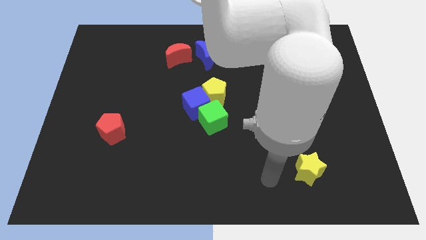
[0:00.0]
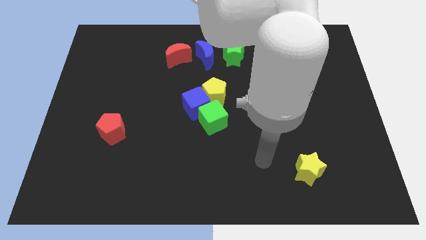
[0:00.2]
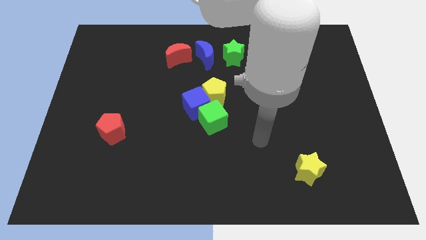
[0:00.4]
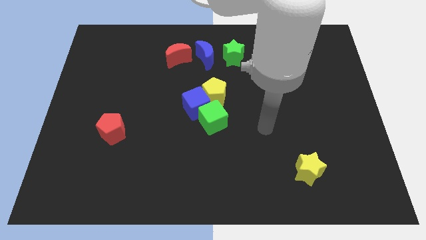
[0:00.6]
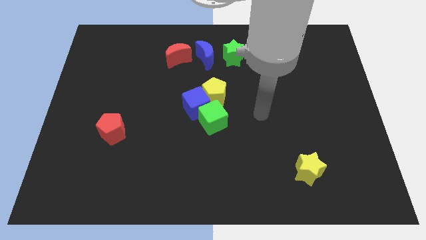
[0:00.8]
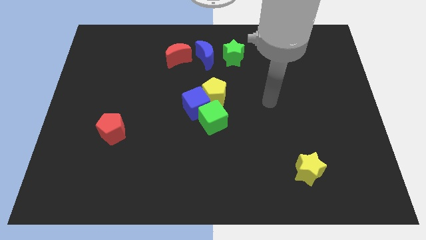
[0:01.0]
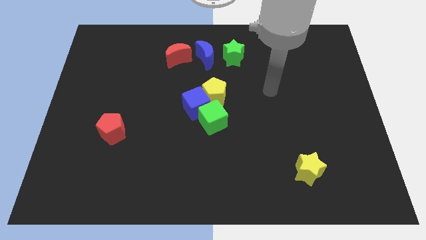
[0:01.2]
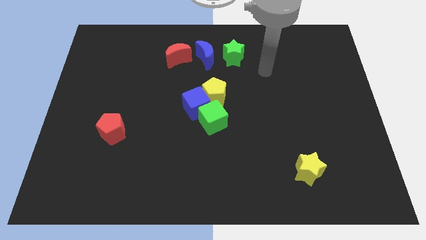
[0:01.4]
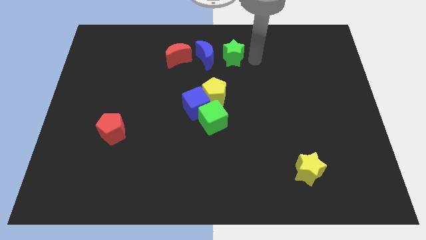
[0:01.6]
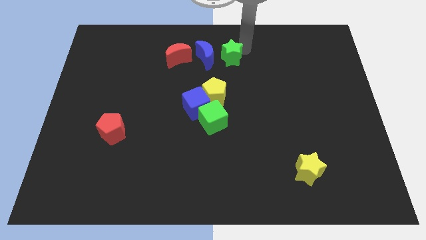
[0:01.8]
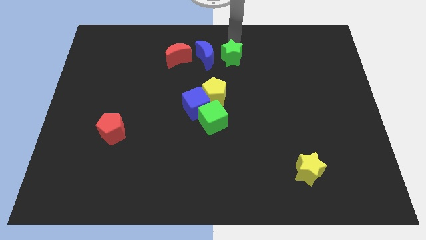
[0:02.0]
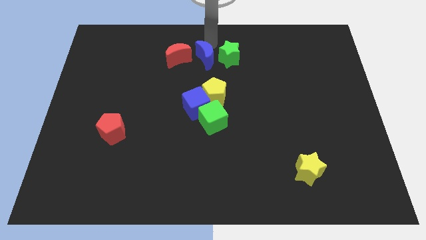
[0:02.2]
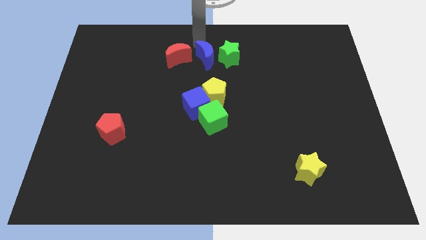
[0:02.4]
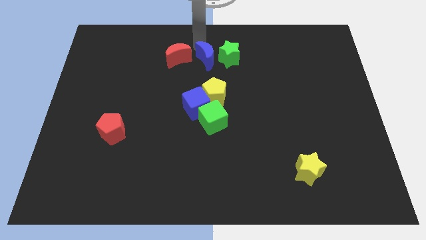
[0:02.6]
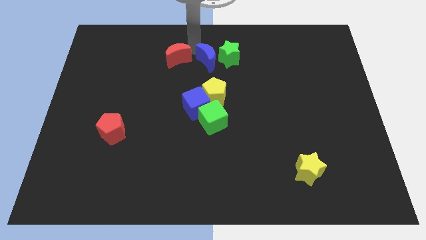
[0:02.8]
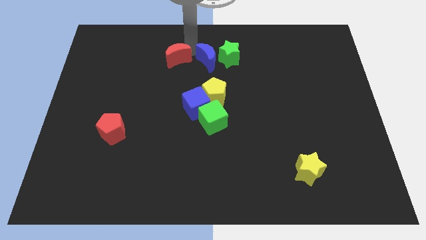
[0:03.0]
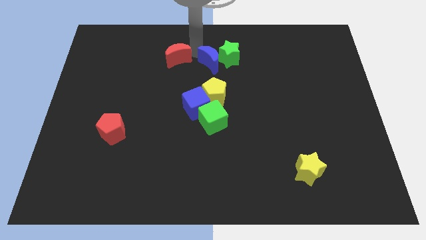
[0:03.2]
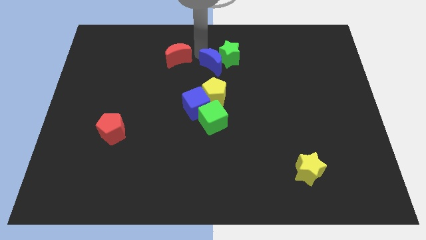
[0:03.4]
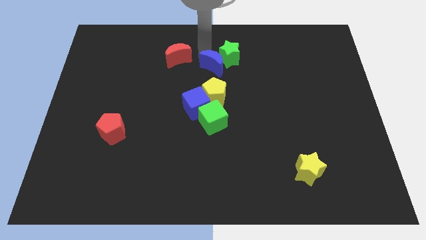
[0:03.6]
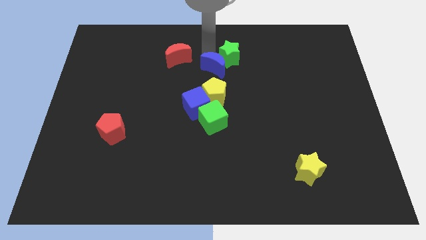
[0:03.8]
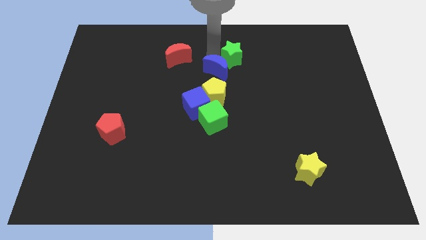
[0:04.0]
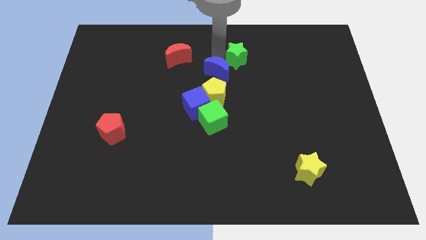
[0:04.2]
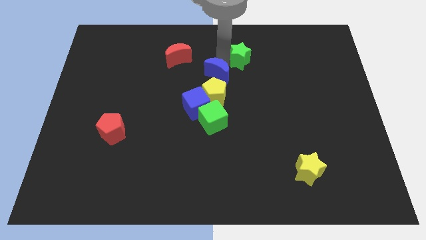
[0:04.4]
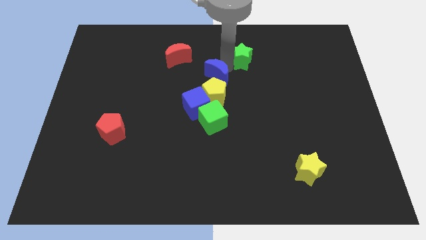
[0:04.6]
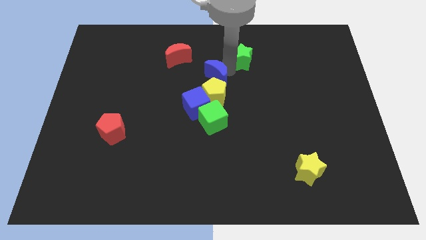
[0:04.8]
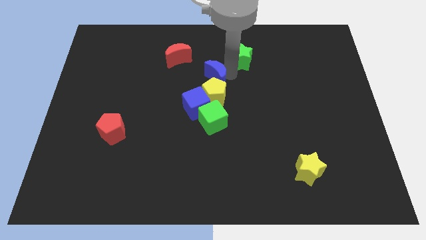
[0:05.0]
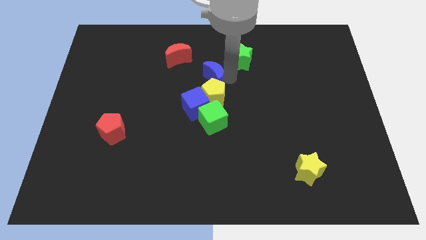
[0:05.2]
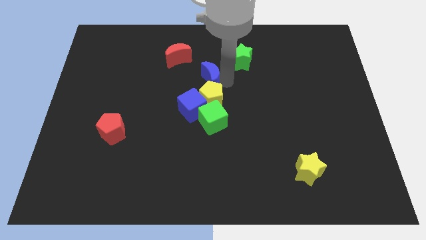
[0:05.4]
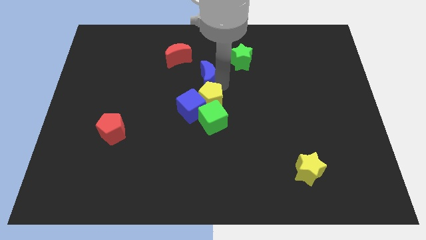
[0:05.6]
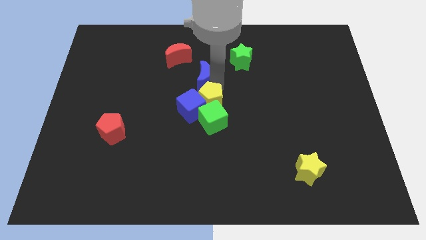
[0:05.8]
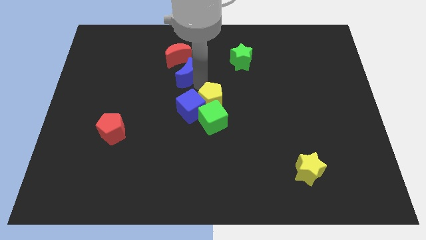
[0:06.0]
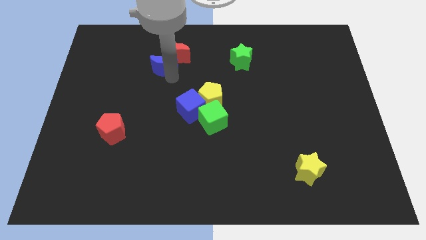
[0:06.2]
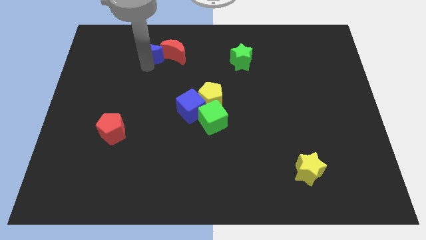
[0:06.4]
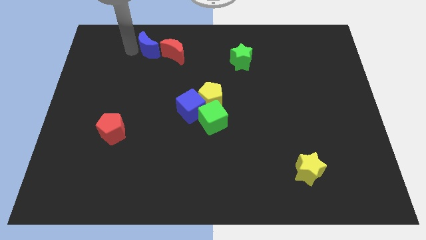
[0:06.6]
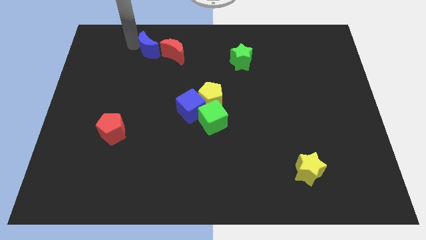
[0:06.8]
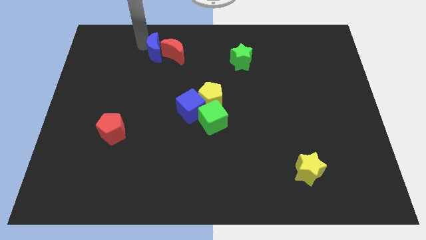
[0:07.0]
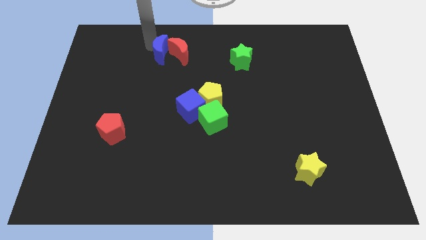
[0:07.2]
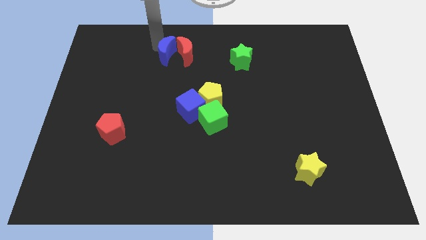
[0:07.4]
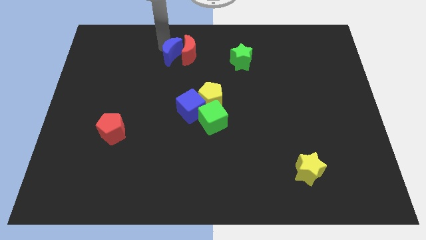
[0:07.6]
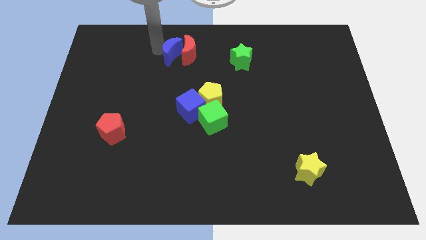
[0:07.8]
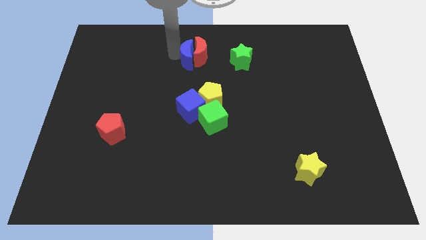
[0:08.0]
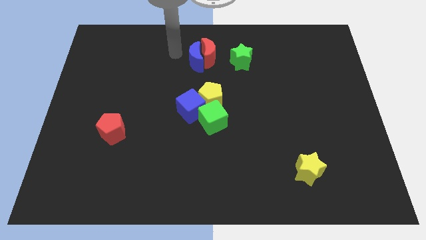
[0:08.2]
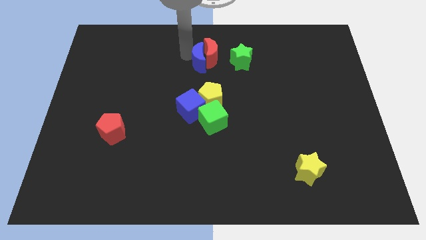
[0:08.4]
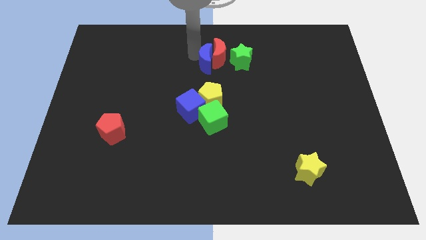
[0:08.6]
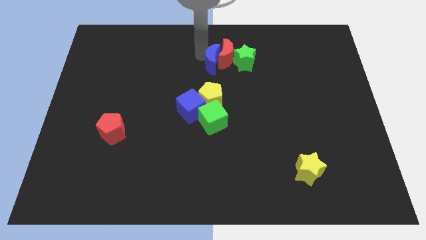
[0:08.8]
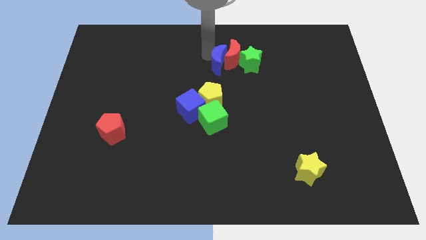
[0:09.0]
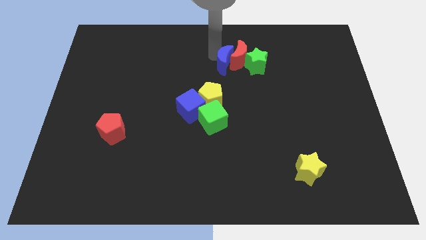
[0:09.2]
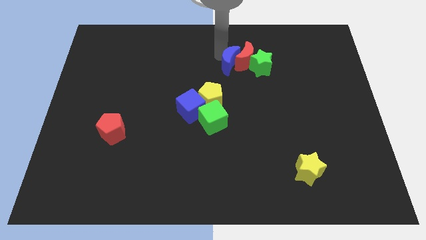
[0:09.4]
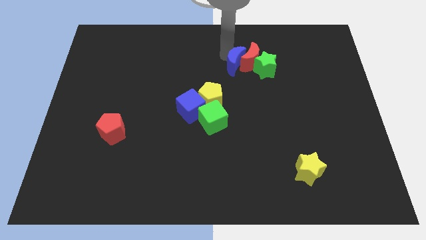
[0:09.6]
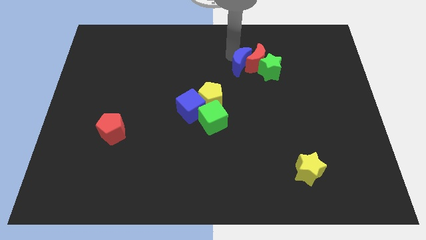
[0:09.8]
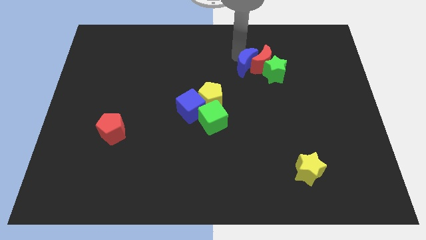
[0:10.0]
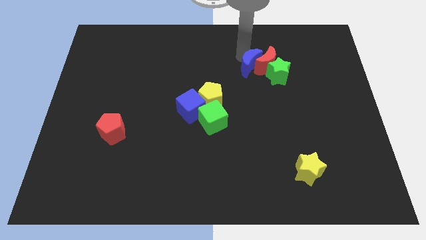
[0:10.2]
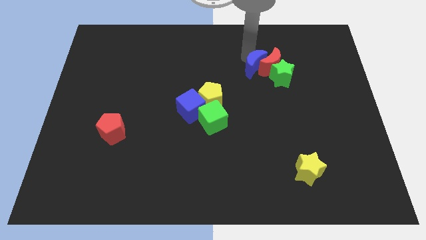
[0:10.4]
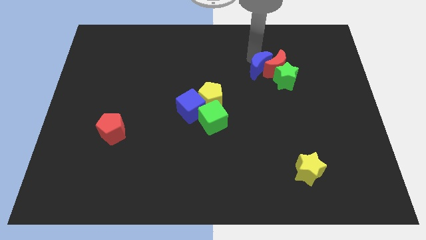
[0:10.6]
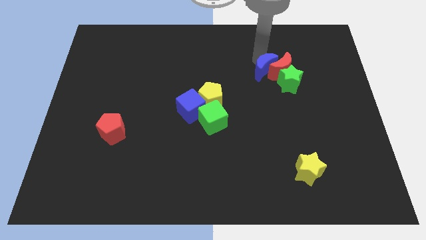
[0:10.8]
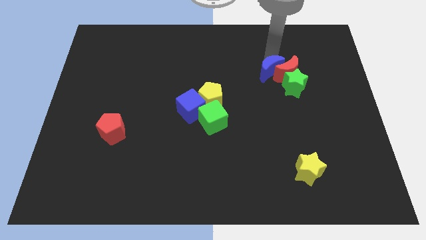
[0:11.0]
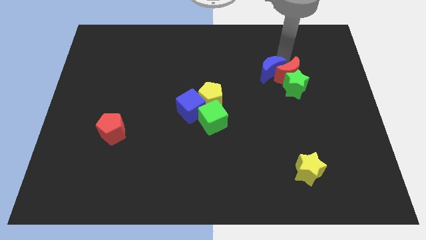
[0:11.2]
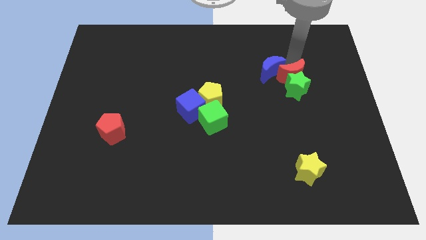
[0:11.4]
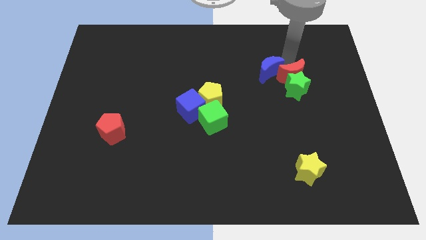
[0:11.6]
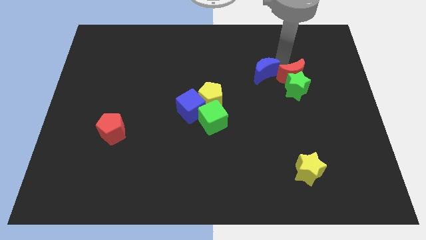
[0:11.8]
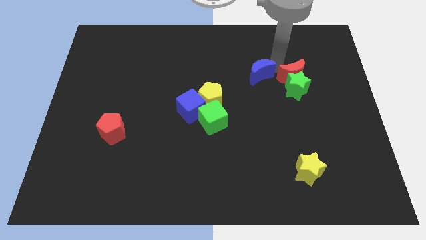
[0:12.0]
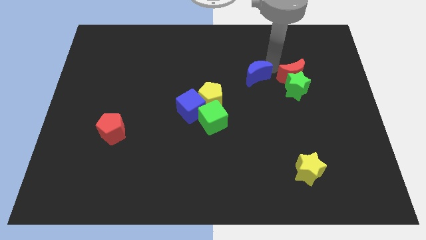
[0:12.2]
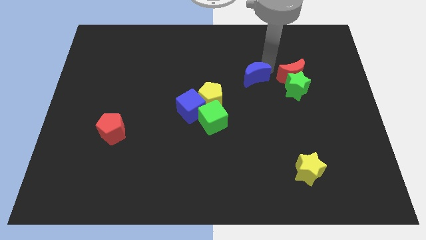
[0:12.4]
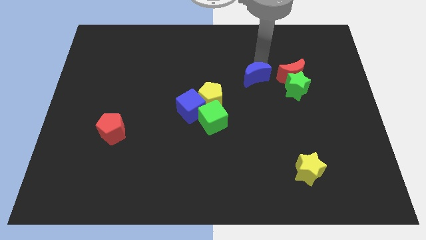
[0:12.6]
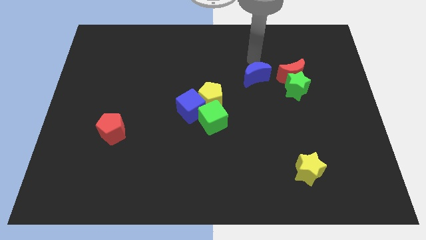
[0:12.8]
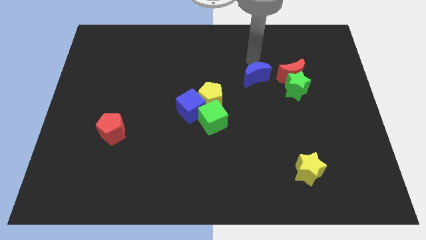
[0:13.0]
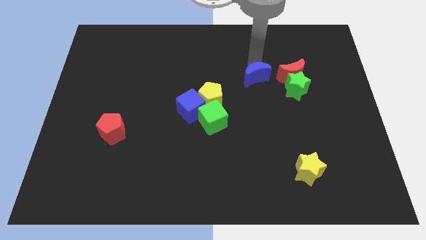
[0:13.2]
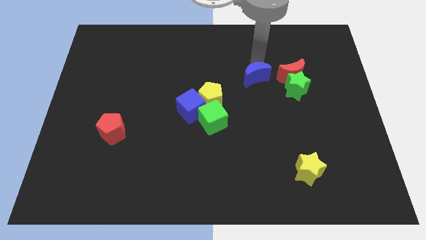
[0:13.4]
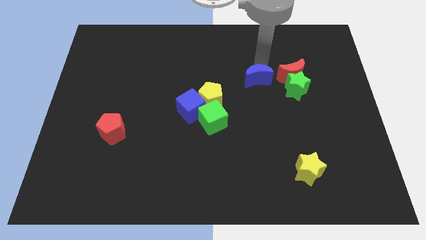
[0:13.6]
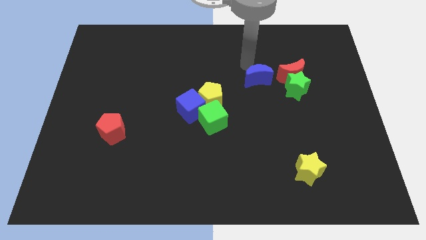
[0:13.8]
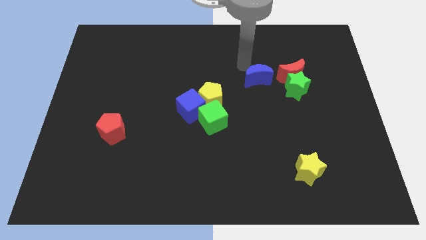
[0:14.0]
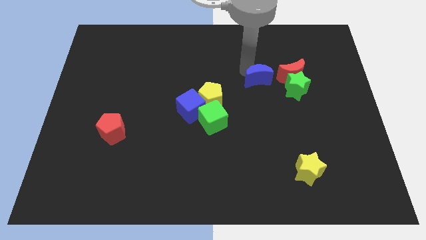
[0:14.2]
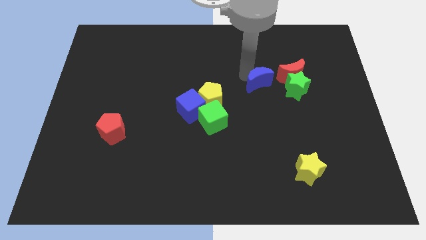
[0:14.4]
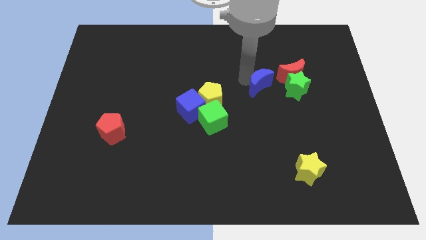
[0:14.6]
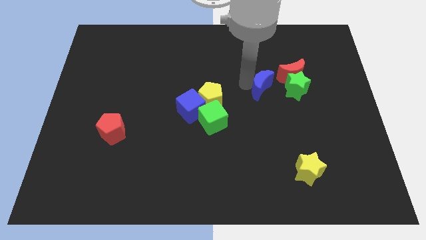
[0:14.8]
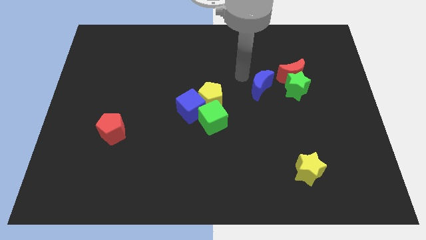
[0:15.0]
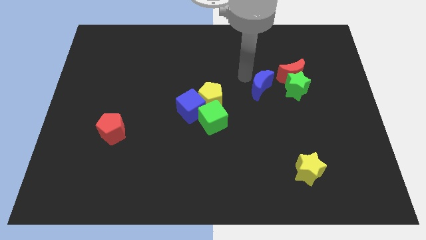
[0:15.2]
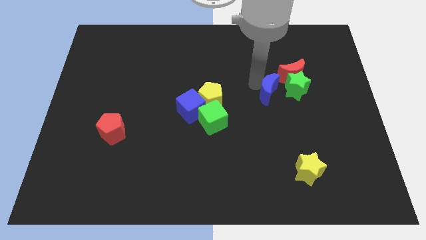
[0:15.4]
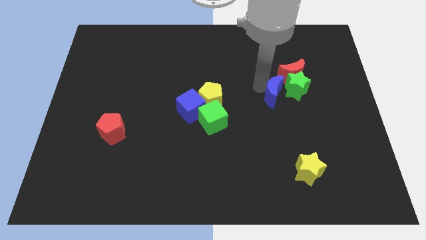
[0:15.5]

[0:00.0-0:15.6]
push the blue moon downwards and to the right diagonally
